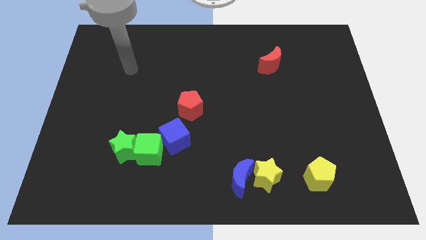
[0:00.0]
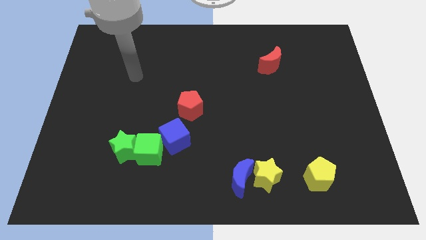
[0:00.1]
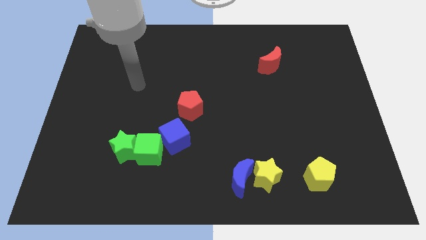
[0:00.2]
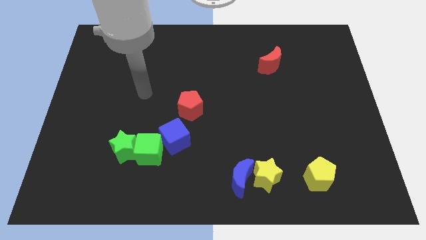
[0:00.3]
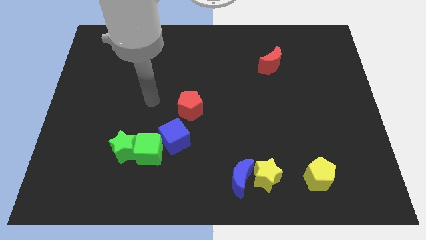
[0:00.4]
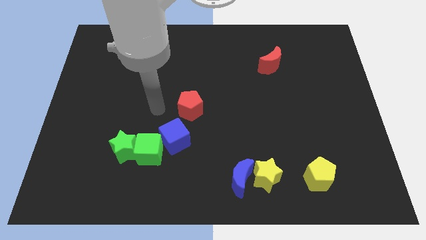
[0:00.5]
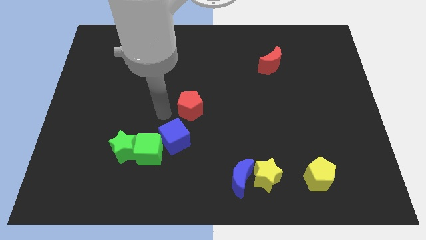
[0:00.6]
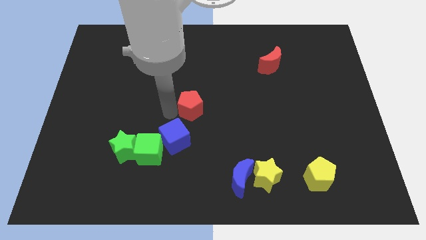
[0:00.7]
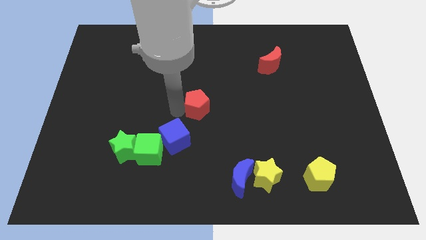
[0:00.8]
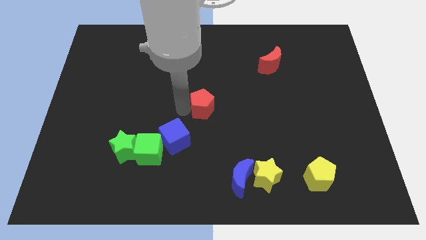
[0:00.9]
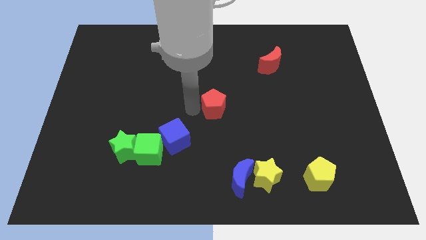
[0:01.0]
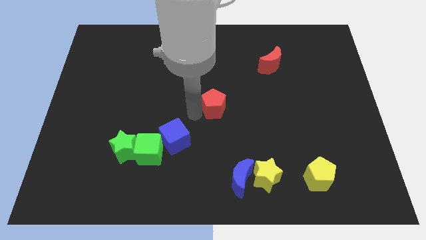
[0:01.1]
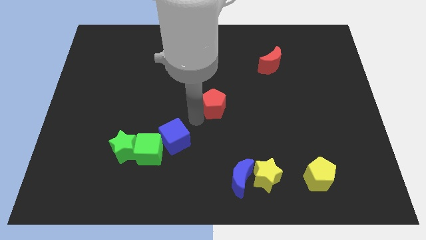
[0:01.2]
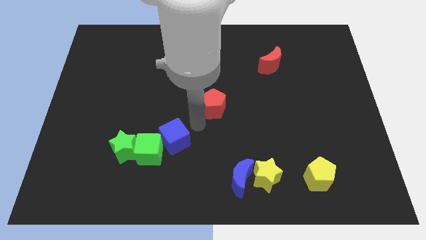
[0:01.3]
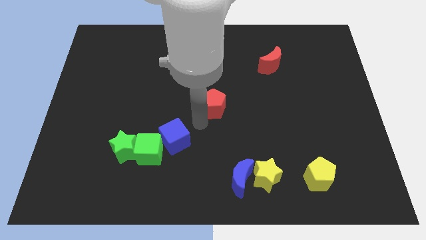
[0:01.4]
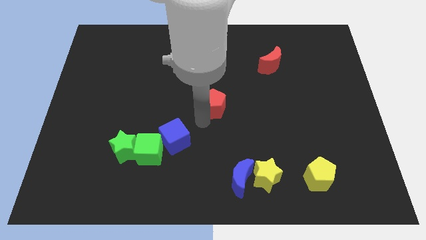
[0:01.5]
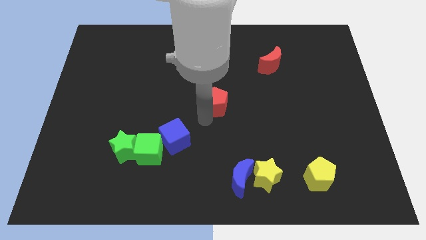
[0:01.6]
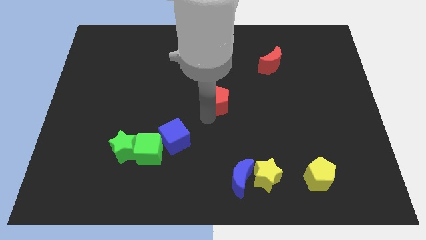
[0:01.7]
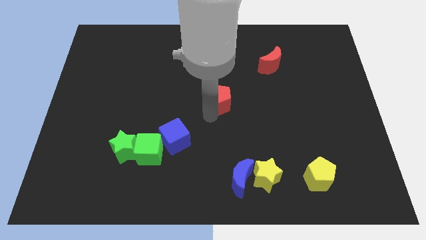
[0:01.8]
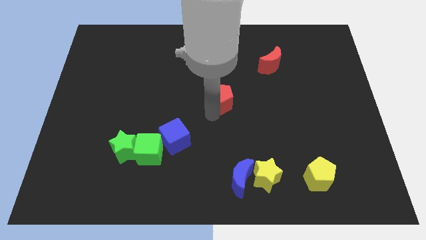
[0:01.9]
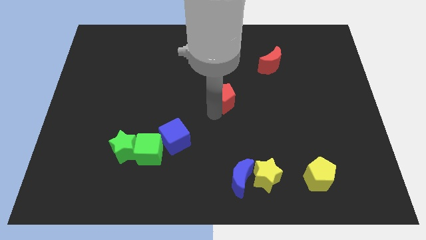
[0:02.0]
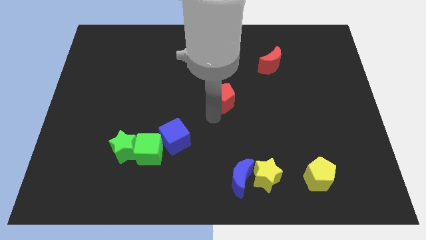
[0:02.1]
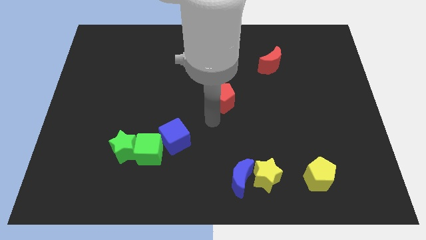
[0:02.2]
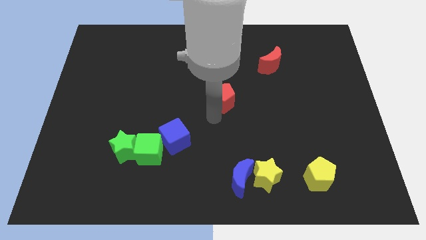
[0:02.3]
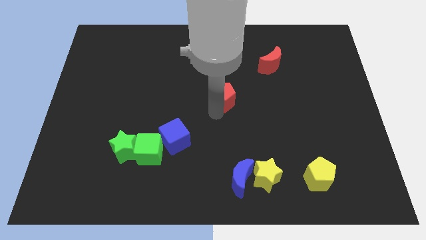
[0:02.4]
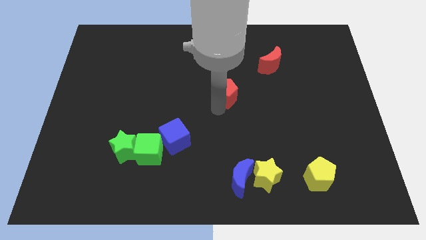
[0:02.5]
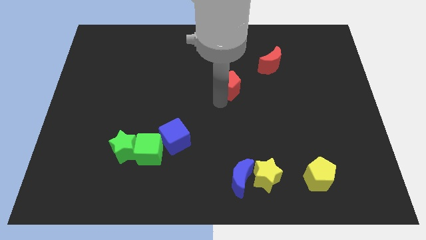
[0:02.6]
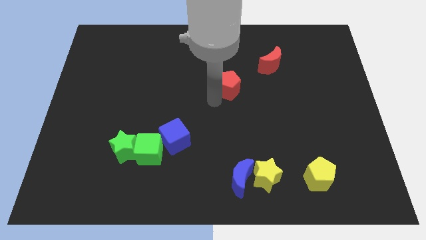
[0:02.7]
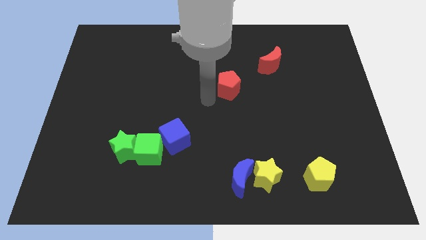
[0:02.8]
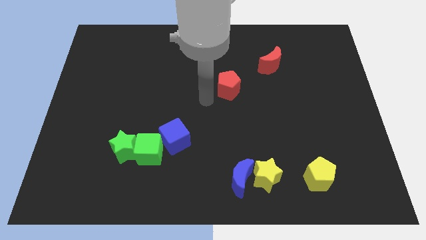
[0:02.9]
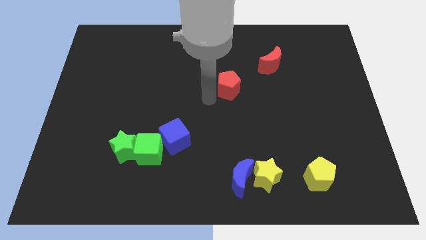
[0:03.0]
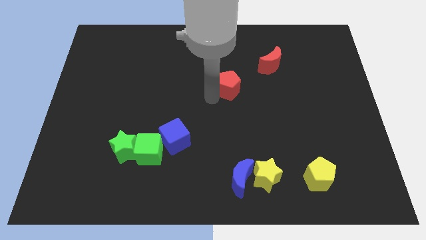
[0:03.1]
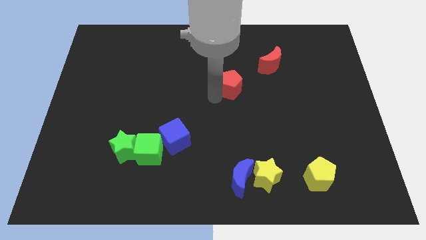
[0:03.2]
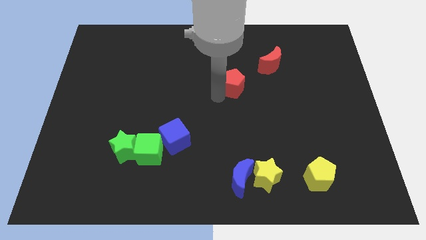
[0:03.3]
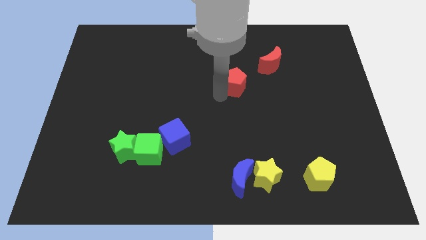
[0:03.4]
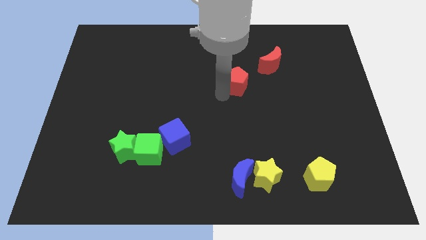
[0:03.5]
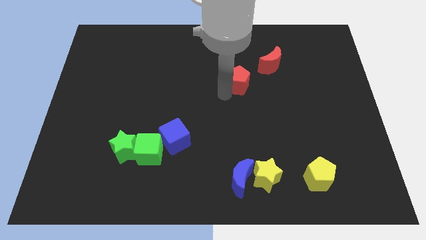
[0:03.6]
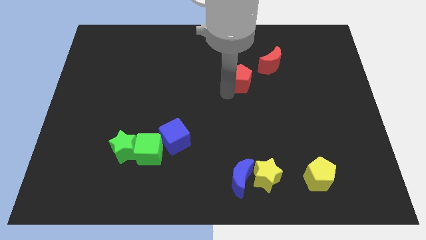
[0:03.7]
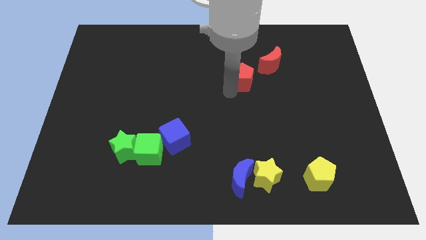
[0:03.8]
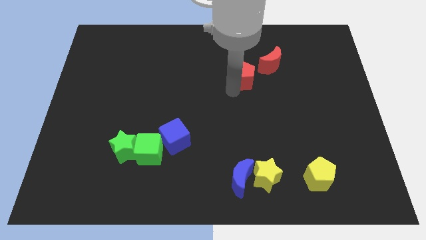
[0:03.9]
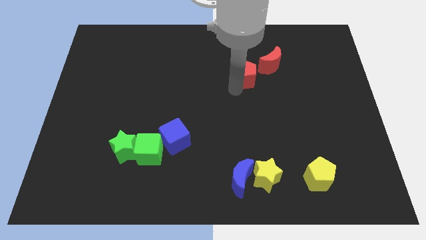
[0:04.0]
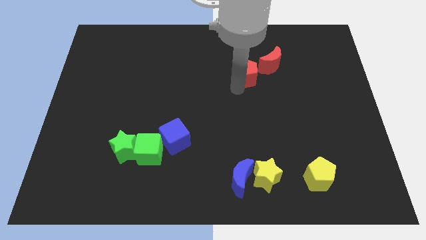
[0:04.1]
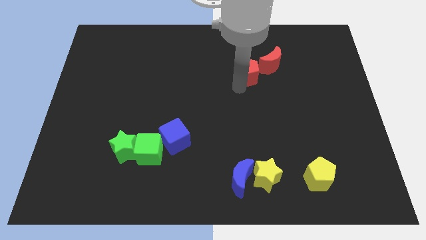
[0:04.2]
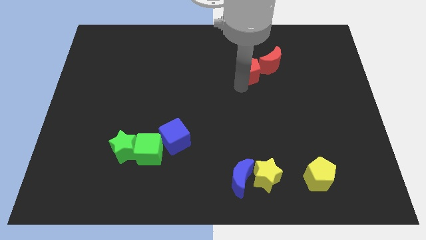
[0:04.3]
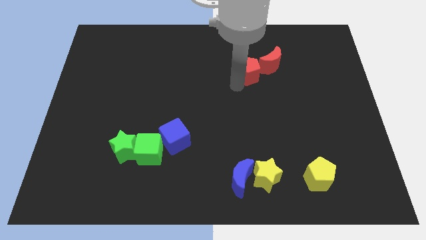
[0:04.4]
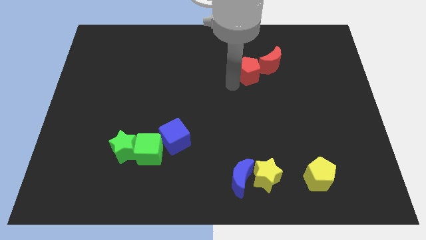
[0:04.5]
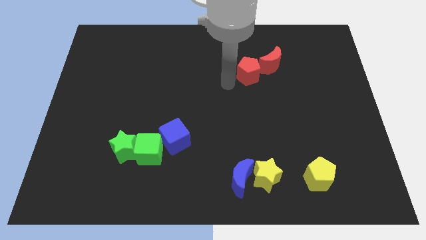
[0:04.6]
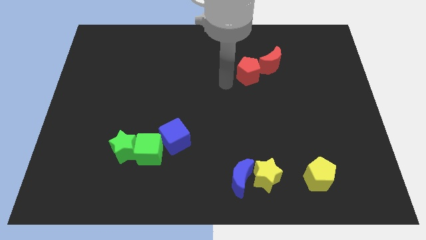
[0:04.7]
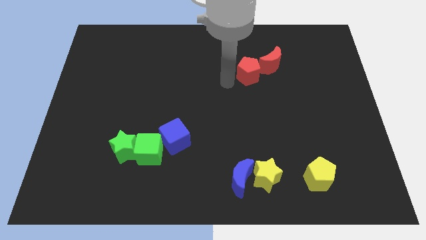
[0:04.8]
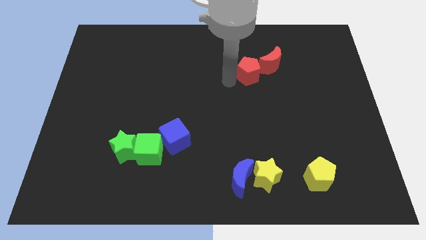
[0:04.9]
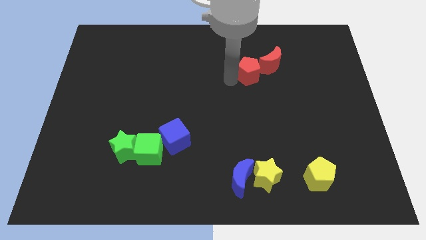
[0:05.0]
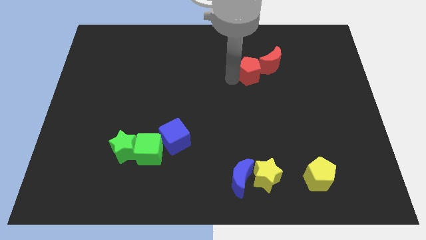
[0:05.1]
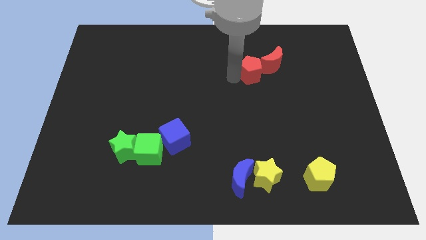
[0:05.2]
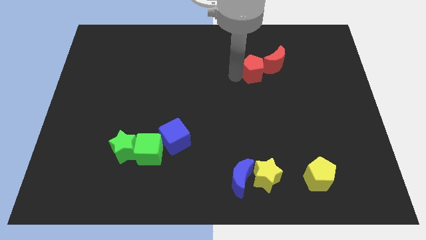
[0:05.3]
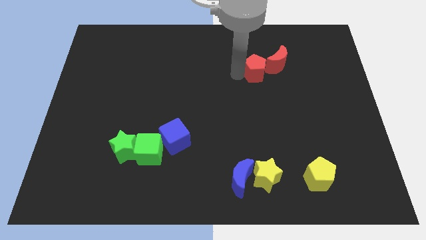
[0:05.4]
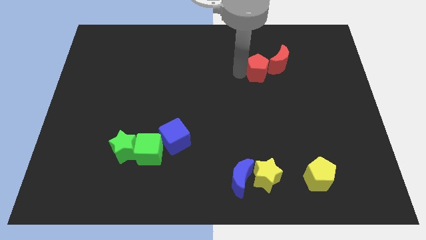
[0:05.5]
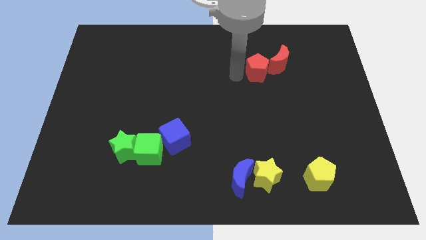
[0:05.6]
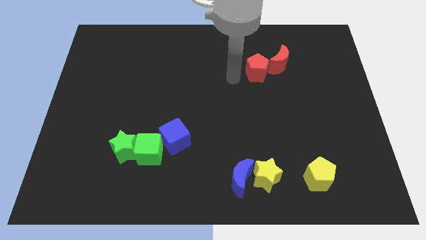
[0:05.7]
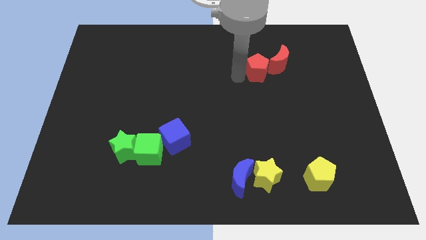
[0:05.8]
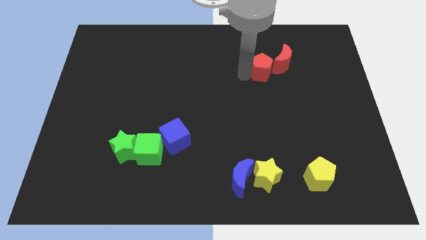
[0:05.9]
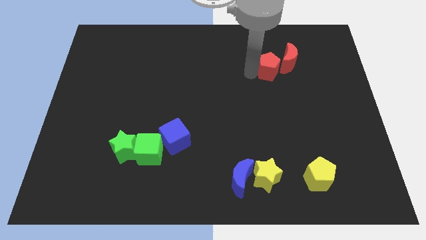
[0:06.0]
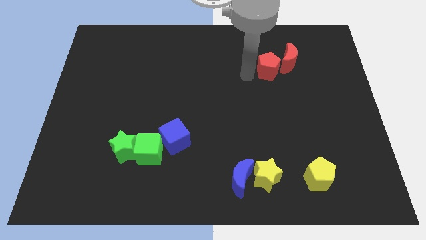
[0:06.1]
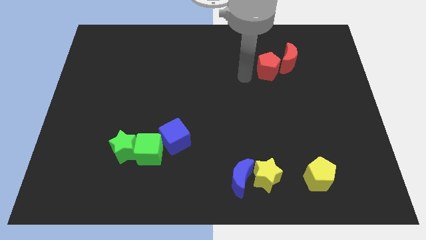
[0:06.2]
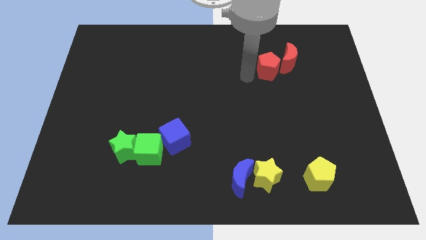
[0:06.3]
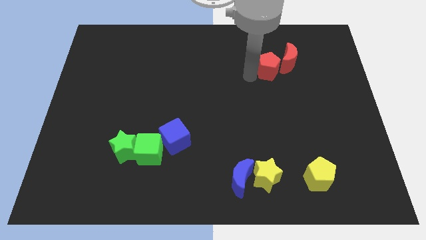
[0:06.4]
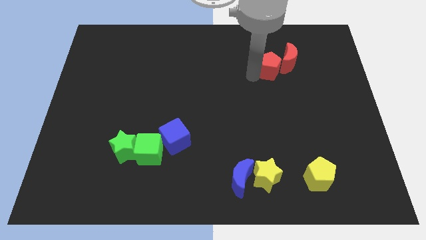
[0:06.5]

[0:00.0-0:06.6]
slide the red pentagon close to the red moon
